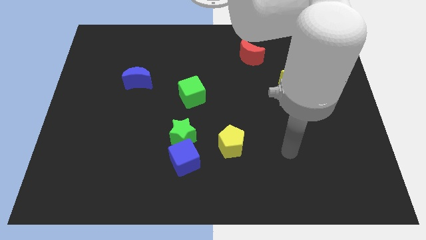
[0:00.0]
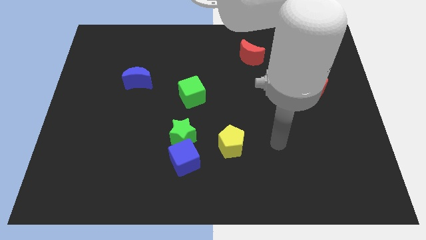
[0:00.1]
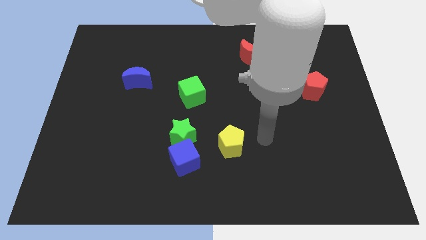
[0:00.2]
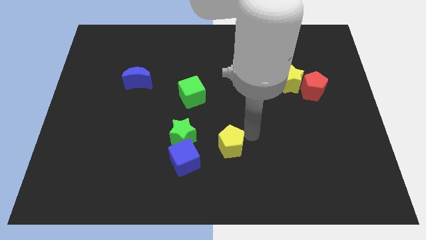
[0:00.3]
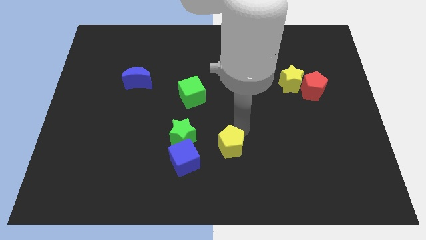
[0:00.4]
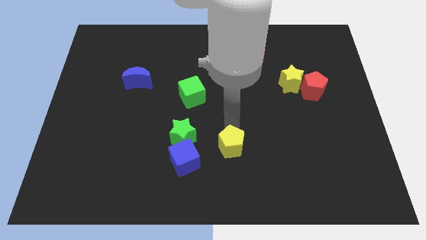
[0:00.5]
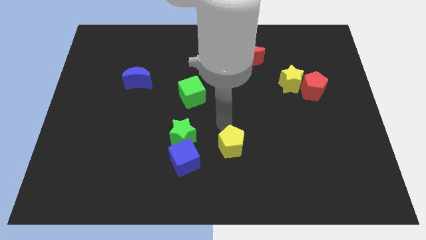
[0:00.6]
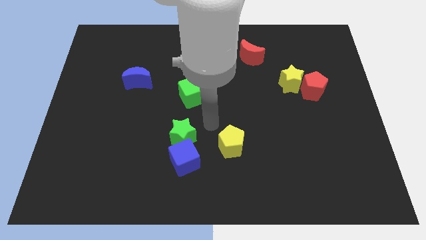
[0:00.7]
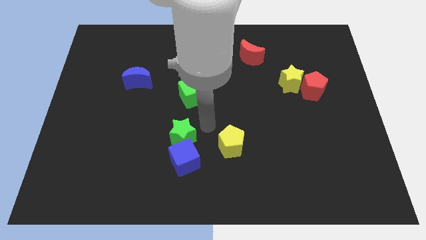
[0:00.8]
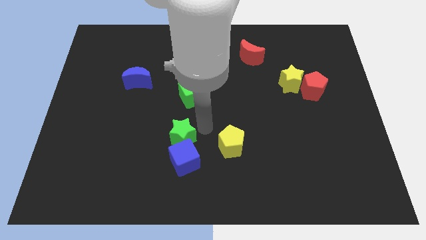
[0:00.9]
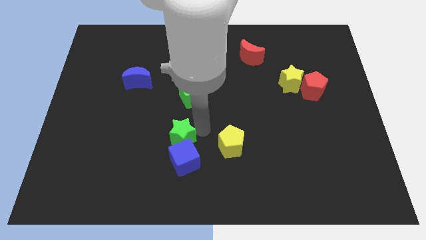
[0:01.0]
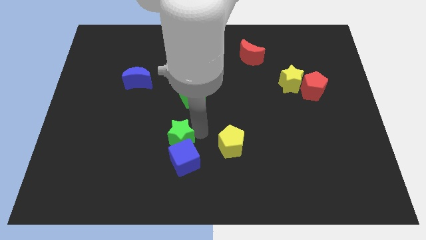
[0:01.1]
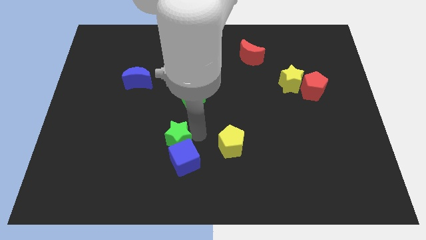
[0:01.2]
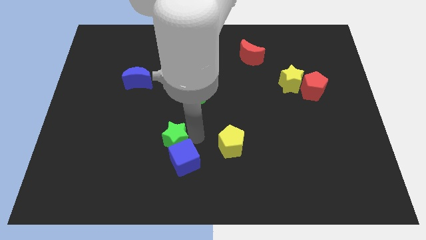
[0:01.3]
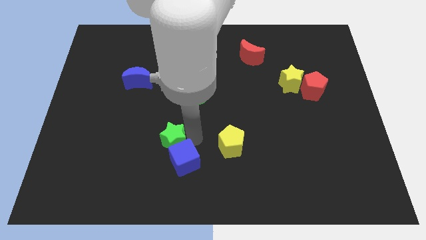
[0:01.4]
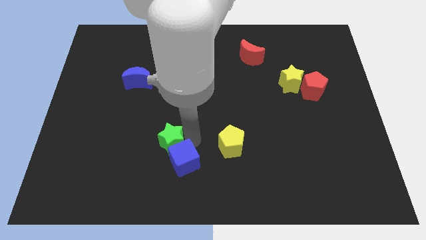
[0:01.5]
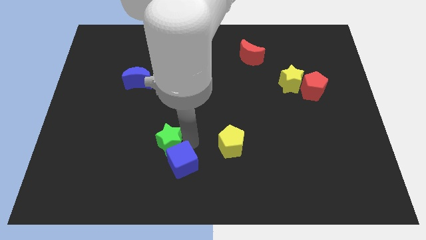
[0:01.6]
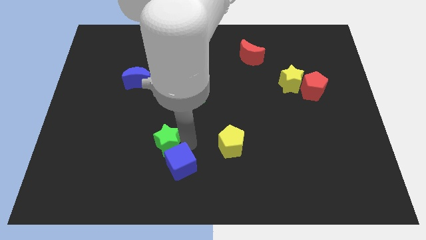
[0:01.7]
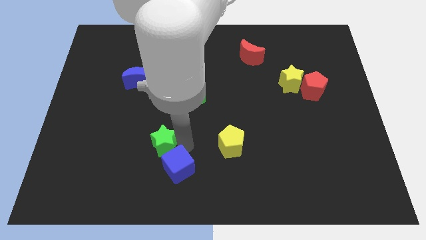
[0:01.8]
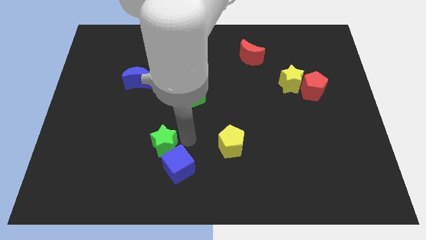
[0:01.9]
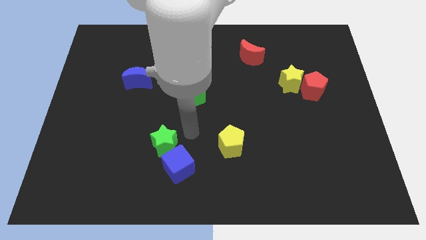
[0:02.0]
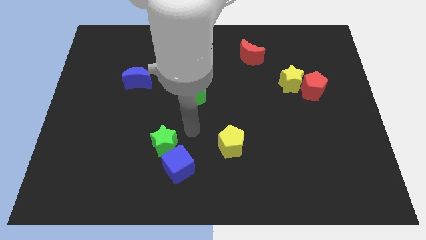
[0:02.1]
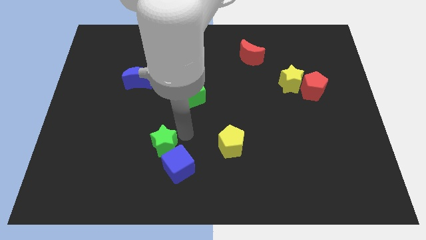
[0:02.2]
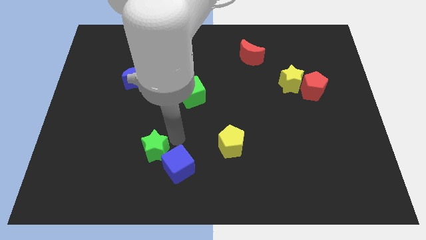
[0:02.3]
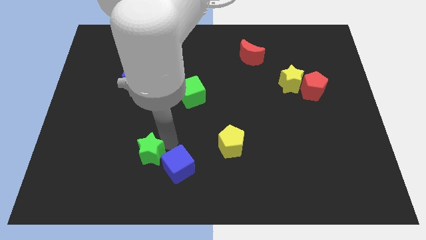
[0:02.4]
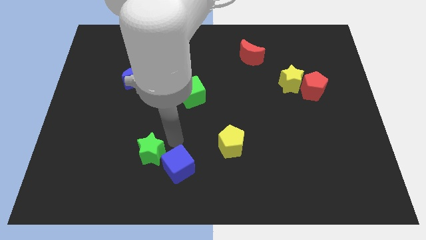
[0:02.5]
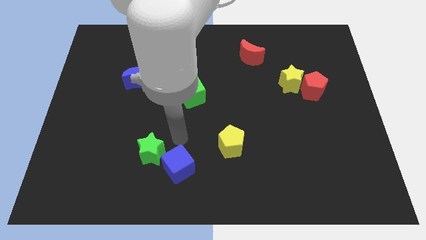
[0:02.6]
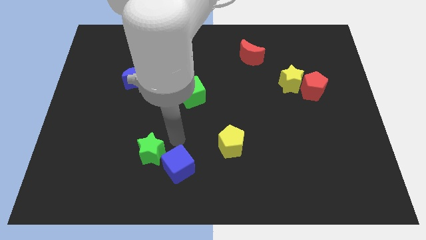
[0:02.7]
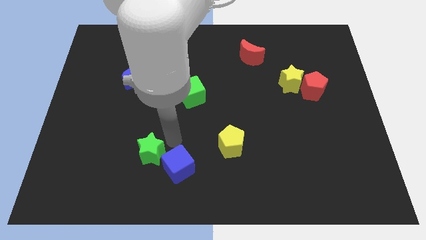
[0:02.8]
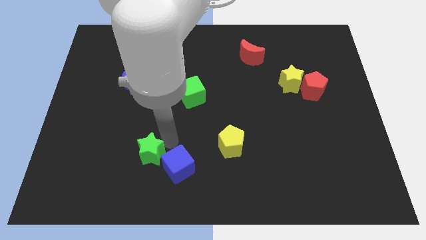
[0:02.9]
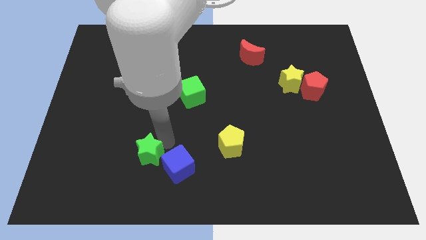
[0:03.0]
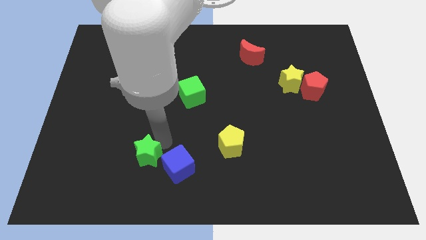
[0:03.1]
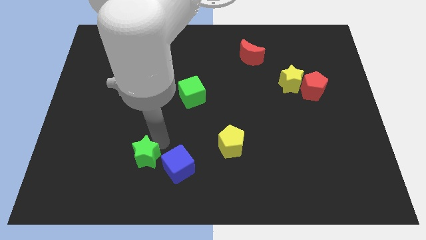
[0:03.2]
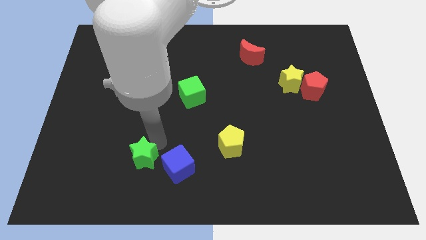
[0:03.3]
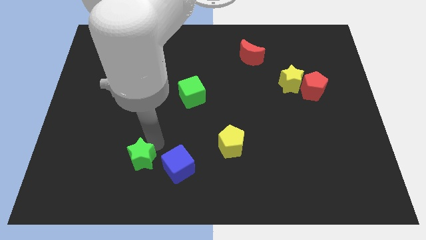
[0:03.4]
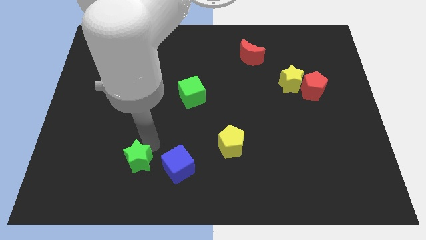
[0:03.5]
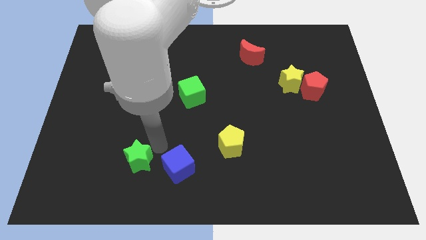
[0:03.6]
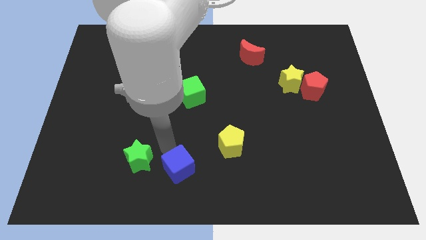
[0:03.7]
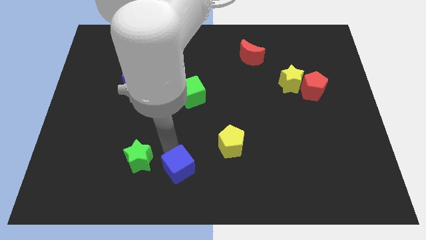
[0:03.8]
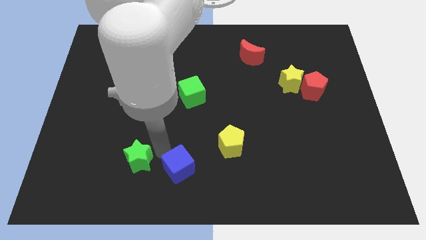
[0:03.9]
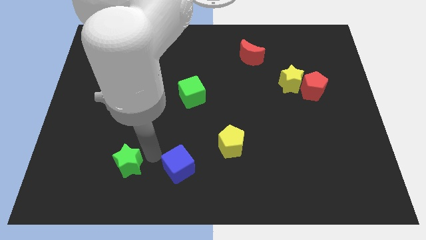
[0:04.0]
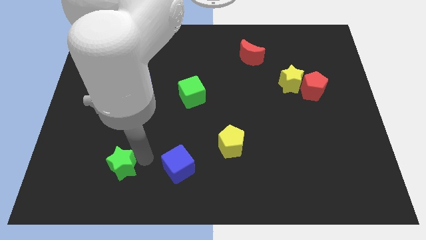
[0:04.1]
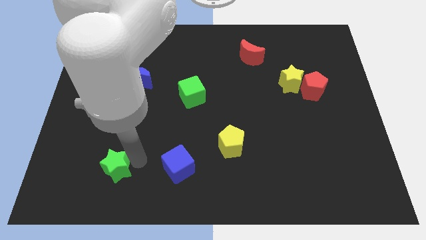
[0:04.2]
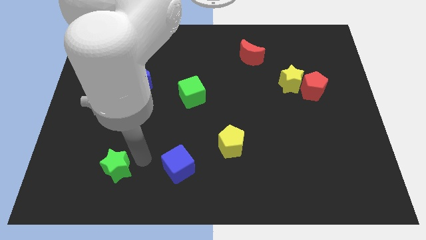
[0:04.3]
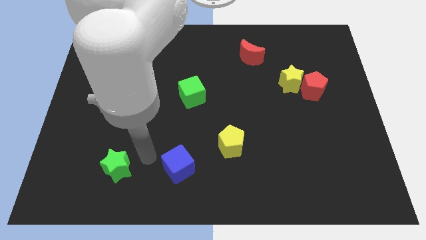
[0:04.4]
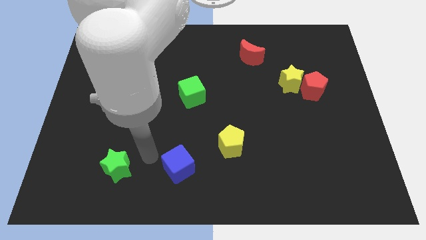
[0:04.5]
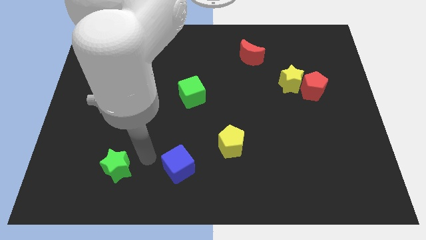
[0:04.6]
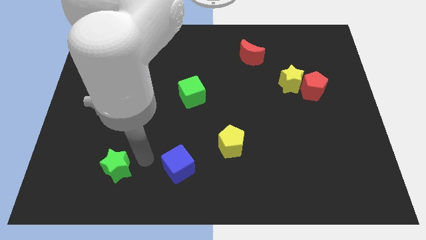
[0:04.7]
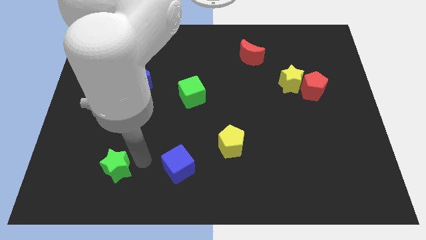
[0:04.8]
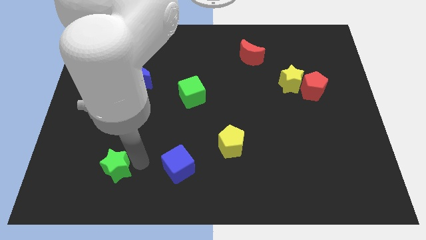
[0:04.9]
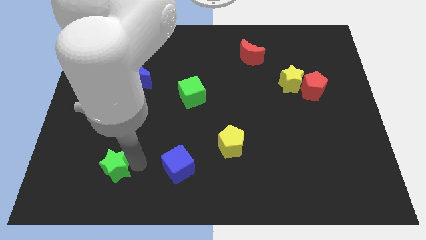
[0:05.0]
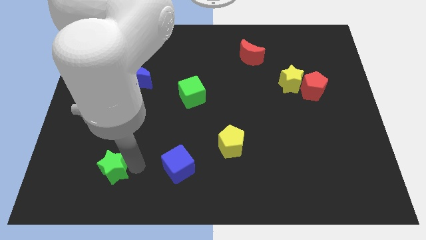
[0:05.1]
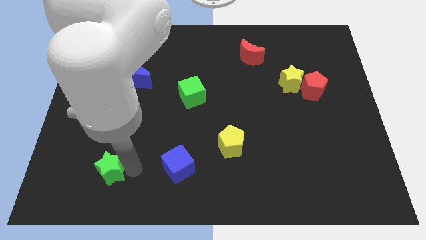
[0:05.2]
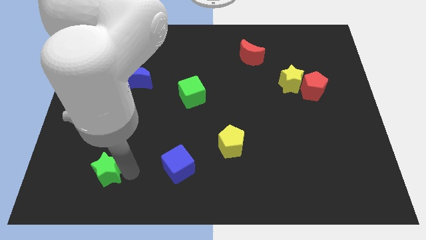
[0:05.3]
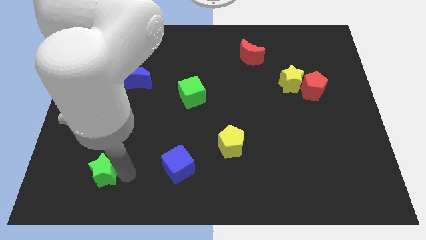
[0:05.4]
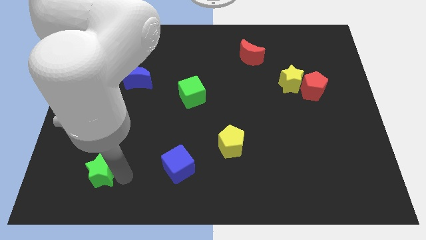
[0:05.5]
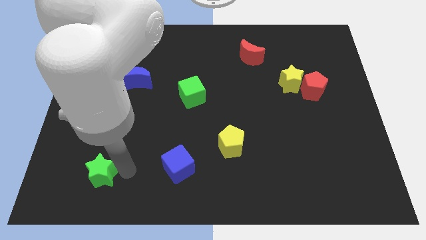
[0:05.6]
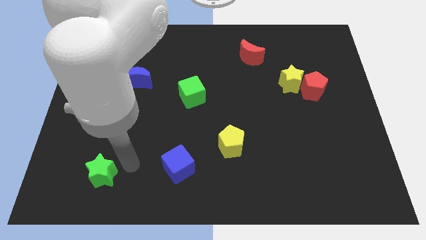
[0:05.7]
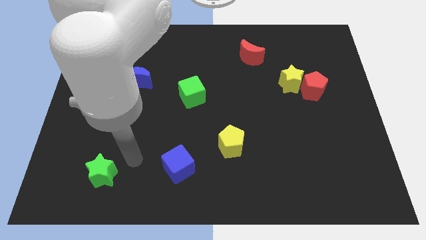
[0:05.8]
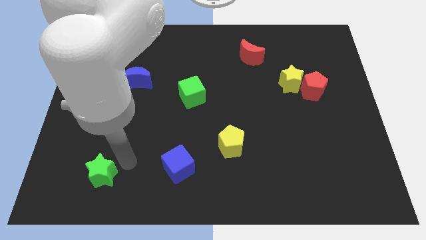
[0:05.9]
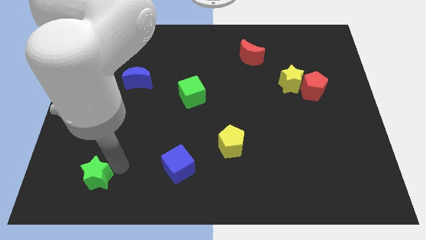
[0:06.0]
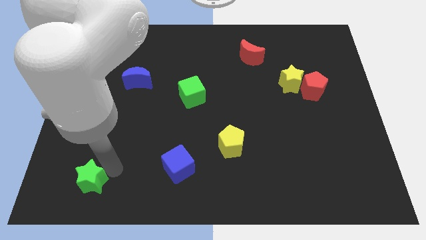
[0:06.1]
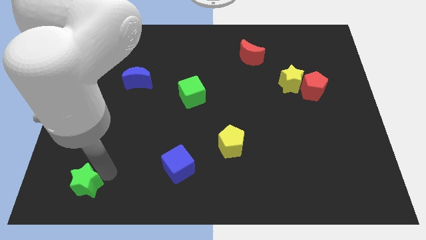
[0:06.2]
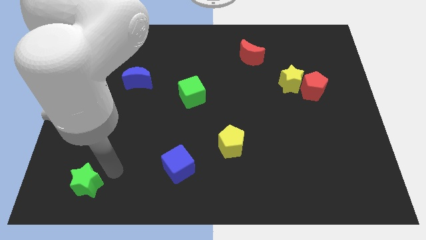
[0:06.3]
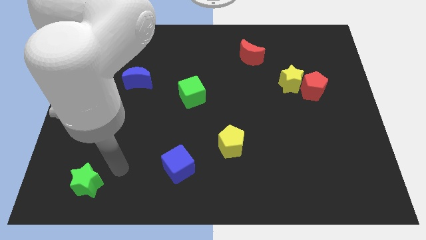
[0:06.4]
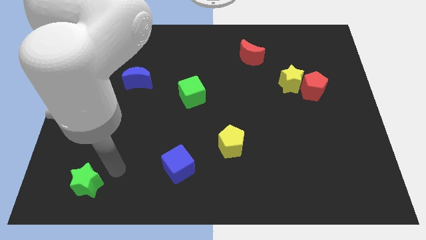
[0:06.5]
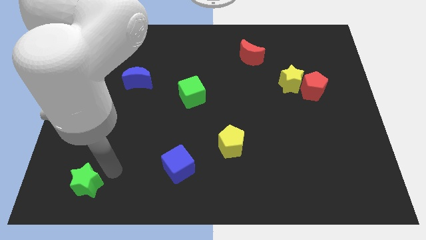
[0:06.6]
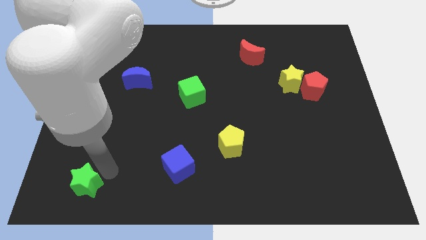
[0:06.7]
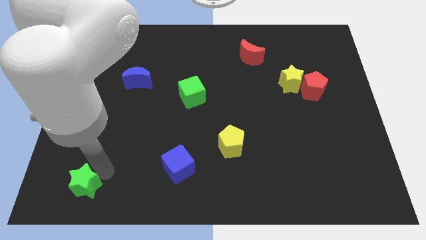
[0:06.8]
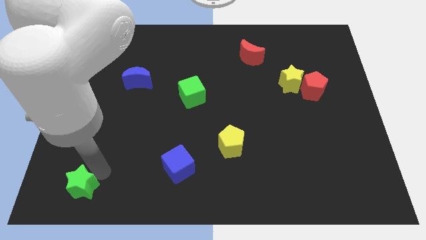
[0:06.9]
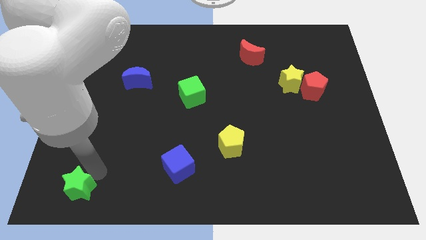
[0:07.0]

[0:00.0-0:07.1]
slide the green star to the bottom left corner

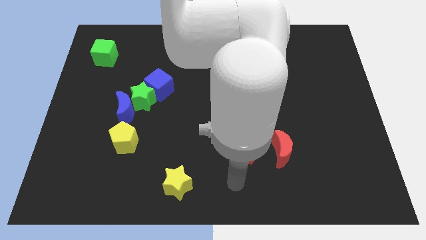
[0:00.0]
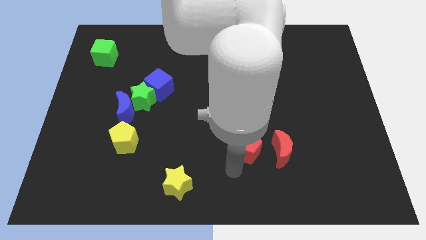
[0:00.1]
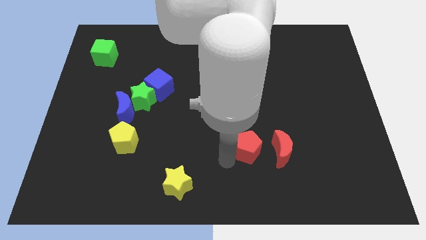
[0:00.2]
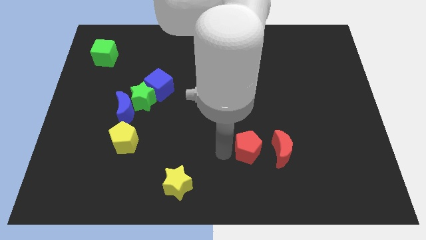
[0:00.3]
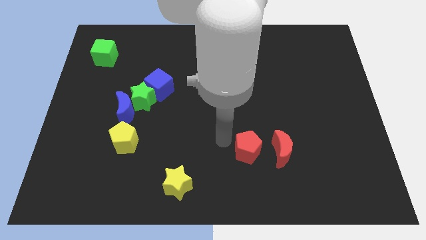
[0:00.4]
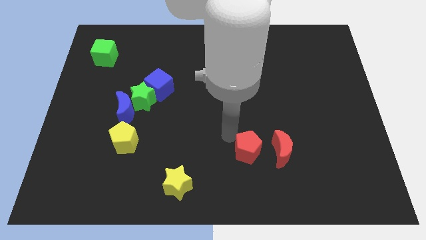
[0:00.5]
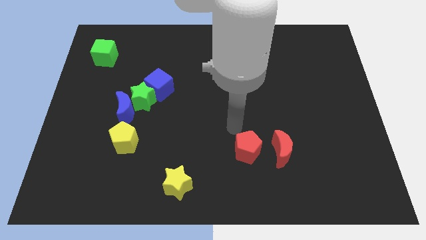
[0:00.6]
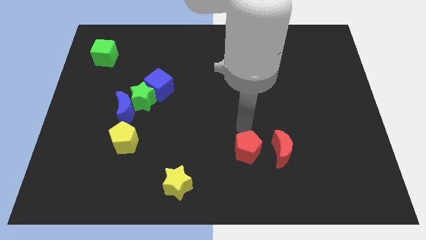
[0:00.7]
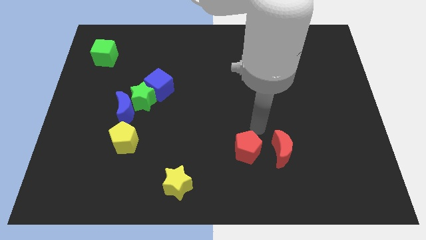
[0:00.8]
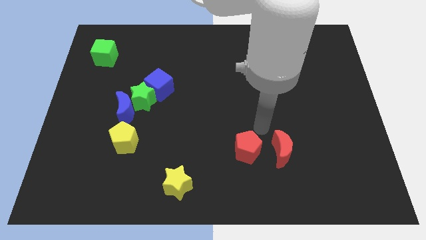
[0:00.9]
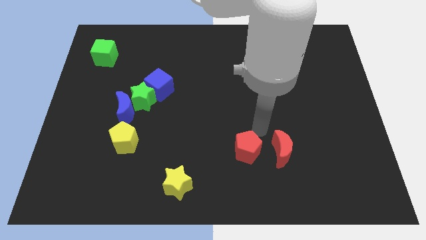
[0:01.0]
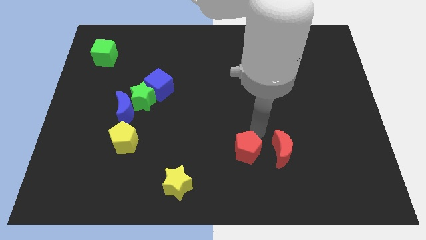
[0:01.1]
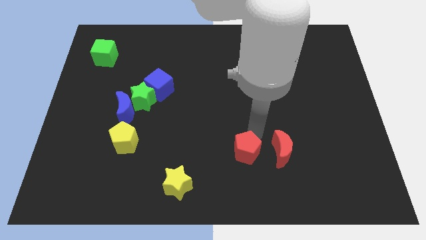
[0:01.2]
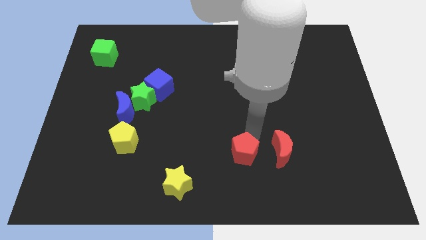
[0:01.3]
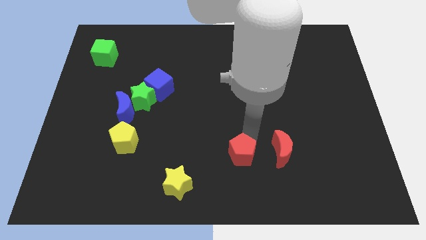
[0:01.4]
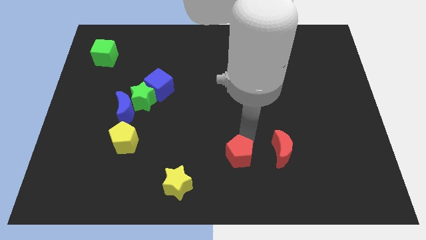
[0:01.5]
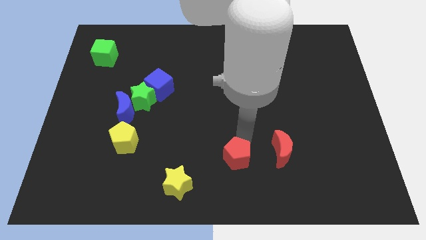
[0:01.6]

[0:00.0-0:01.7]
push the red pentagon to the bottom
